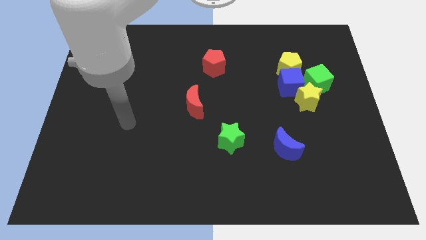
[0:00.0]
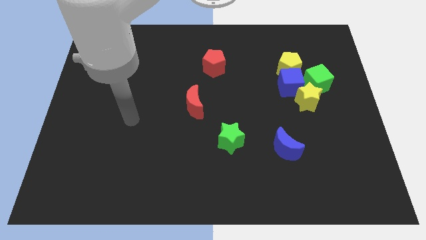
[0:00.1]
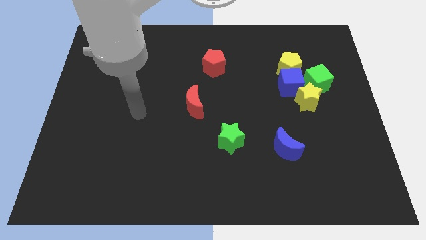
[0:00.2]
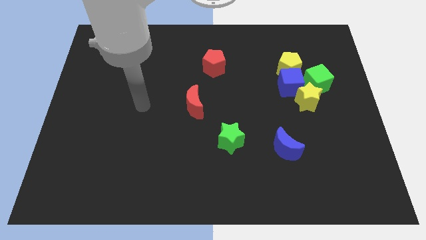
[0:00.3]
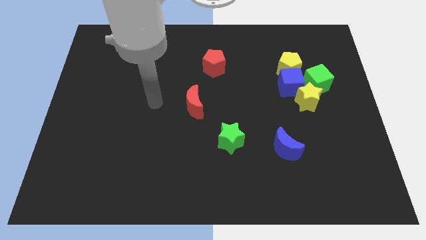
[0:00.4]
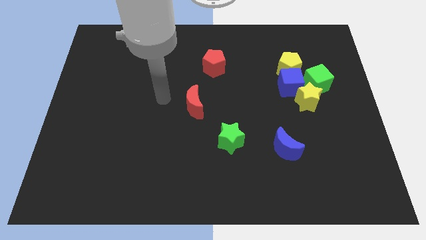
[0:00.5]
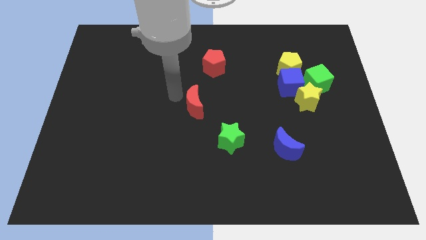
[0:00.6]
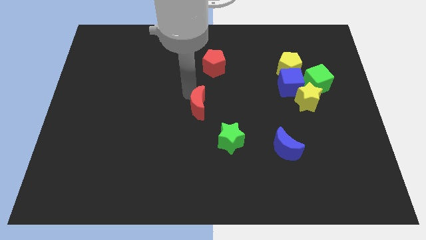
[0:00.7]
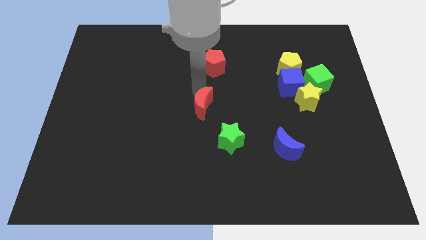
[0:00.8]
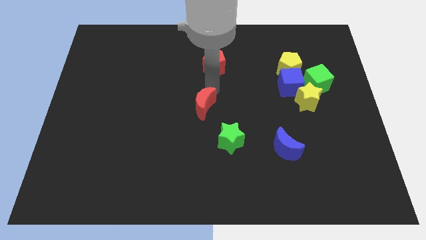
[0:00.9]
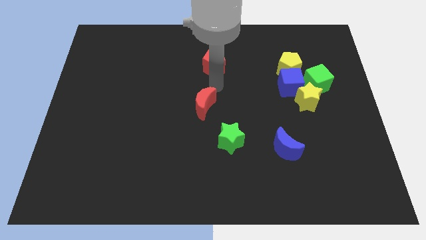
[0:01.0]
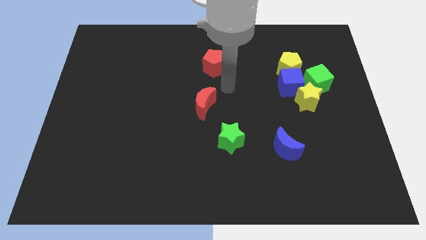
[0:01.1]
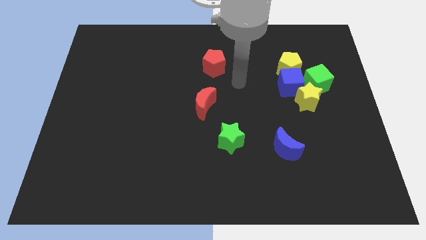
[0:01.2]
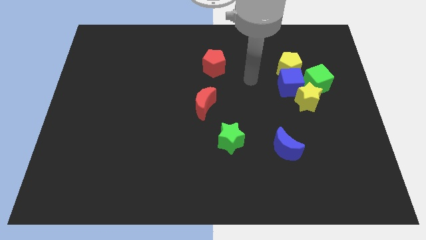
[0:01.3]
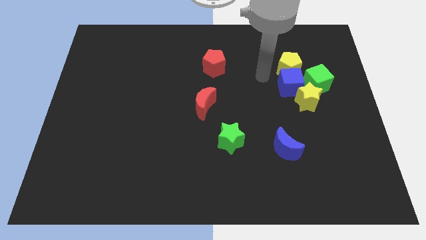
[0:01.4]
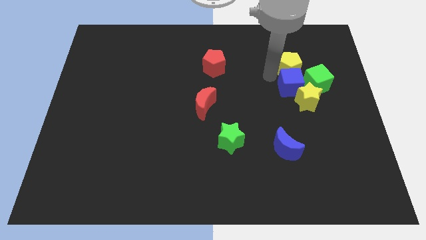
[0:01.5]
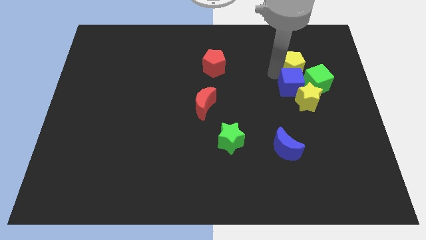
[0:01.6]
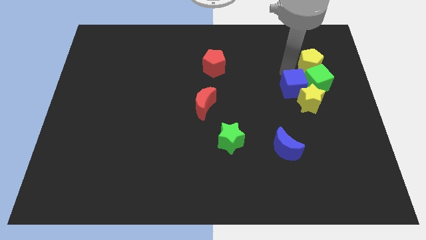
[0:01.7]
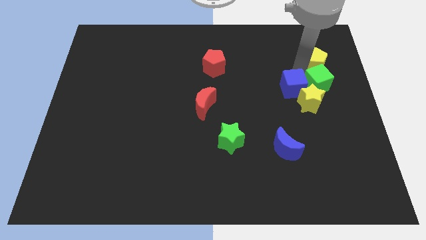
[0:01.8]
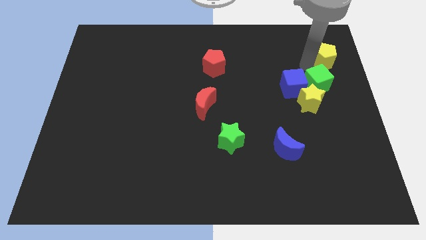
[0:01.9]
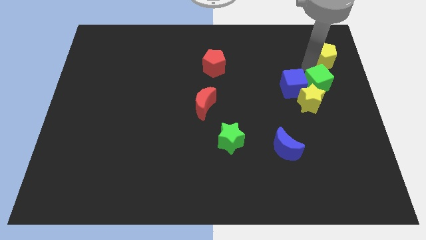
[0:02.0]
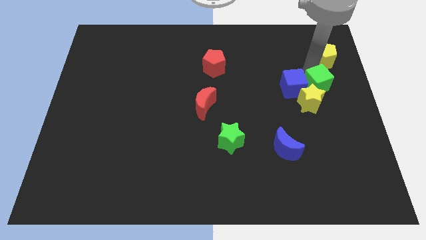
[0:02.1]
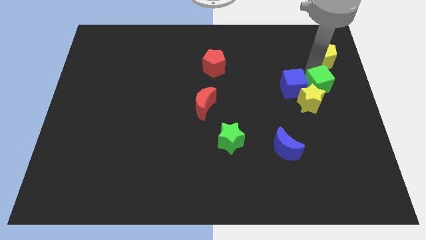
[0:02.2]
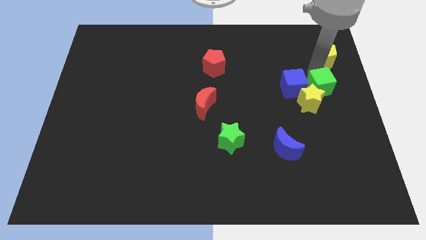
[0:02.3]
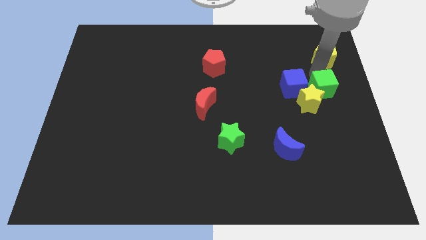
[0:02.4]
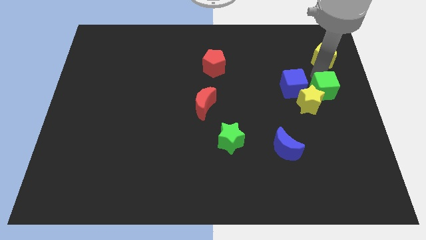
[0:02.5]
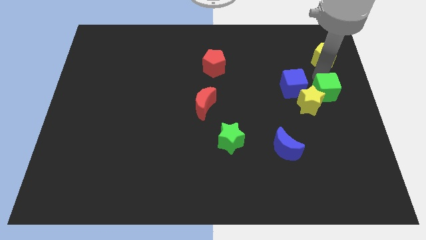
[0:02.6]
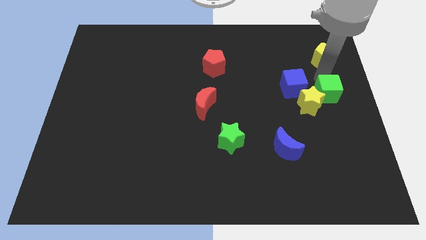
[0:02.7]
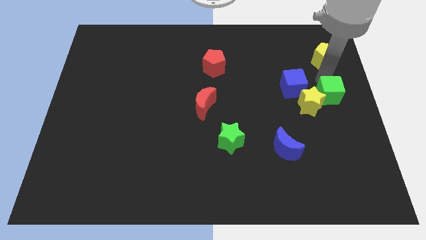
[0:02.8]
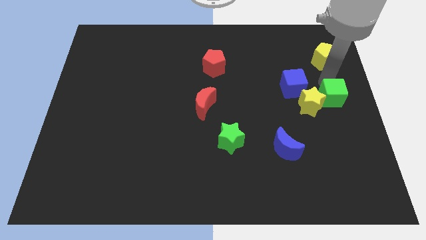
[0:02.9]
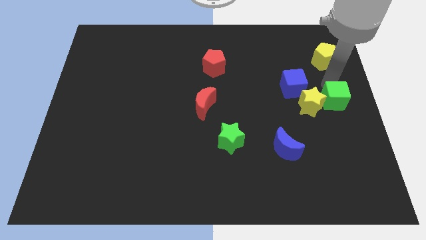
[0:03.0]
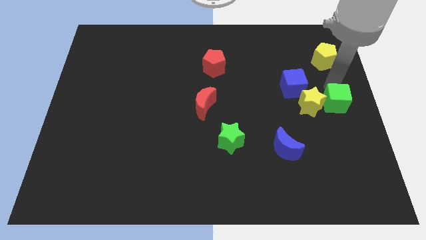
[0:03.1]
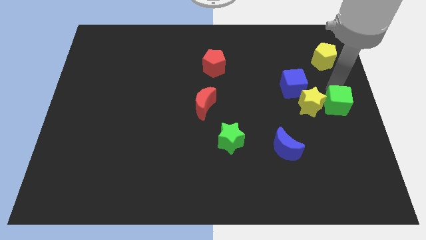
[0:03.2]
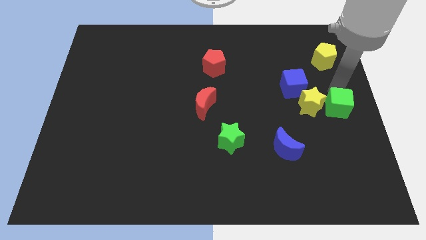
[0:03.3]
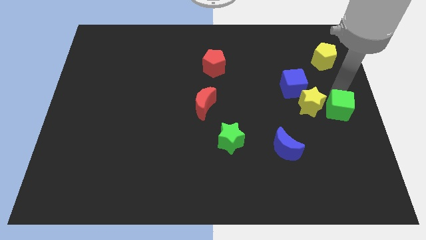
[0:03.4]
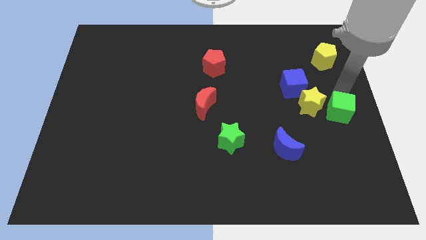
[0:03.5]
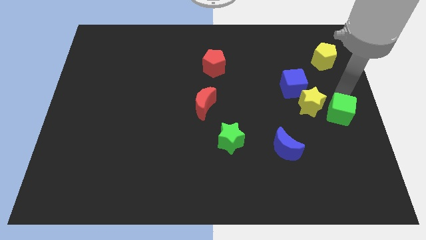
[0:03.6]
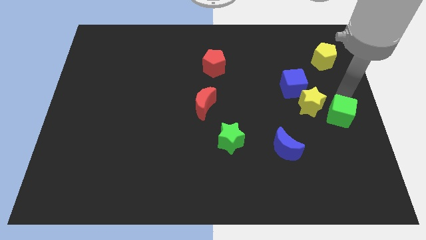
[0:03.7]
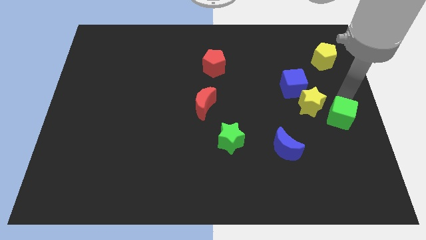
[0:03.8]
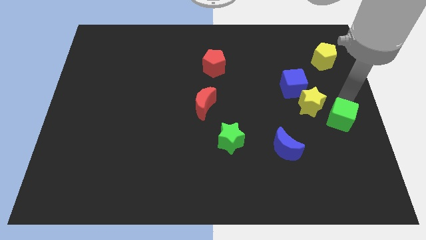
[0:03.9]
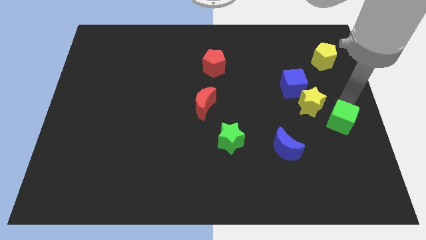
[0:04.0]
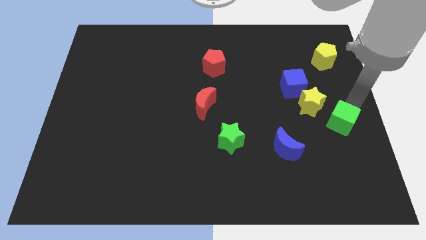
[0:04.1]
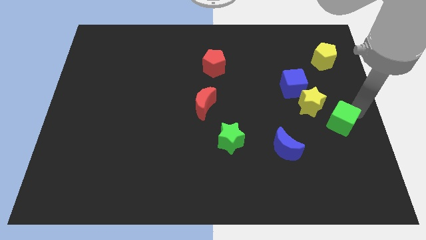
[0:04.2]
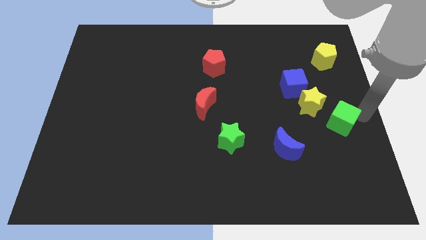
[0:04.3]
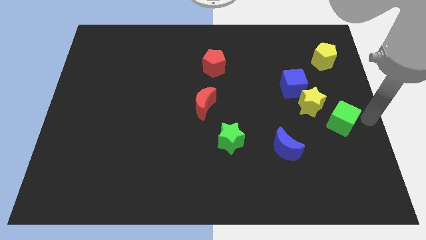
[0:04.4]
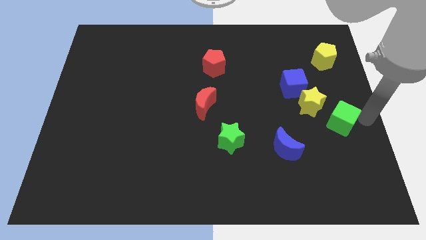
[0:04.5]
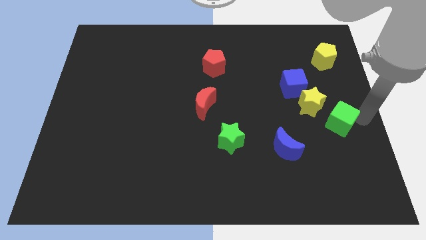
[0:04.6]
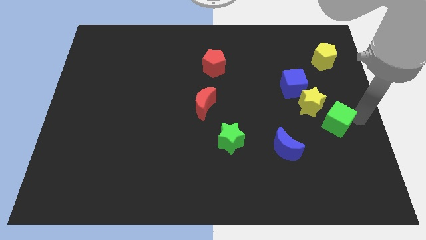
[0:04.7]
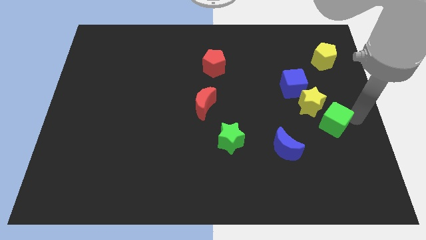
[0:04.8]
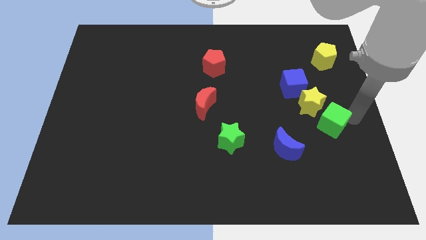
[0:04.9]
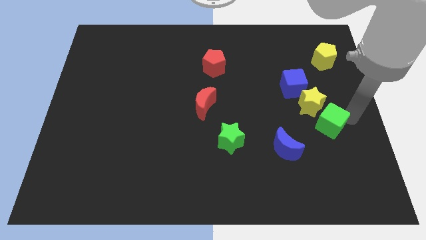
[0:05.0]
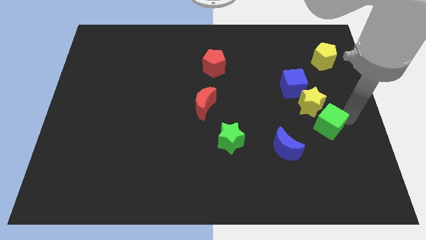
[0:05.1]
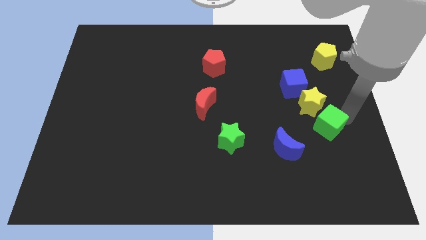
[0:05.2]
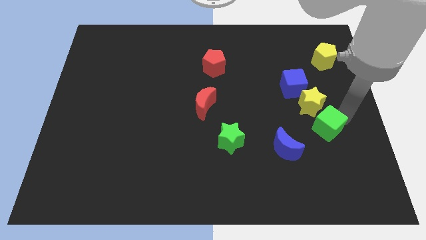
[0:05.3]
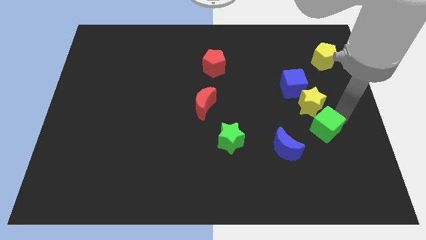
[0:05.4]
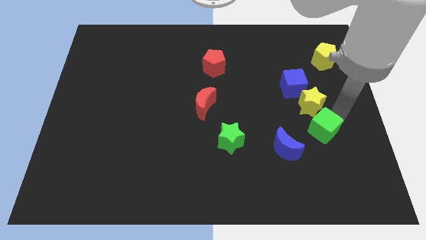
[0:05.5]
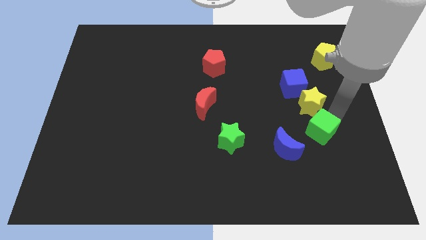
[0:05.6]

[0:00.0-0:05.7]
slide the green cube below the blue cube
